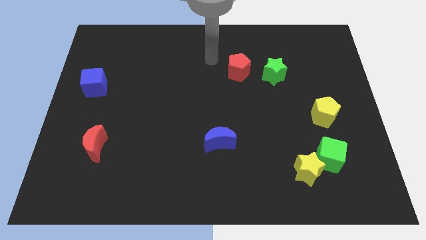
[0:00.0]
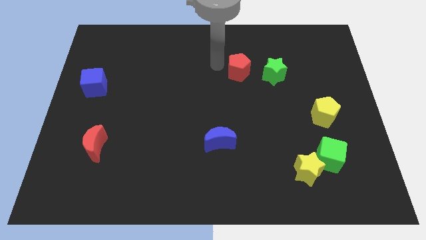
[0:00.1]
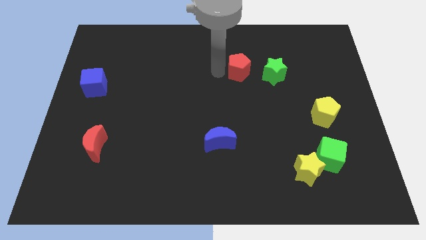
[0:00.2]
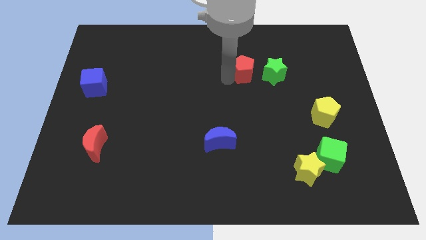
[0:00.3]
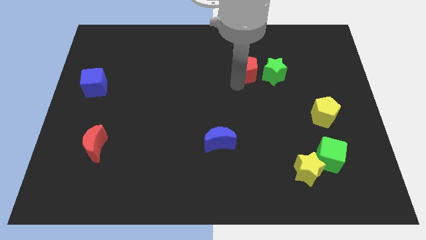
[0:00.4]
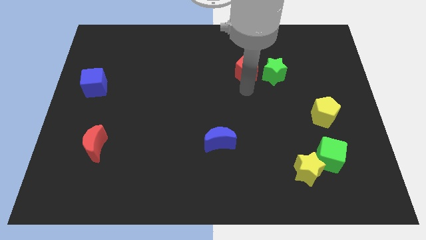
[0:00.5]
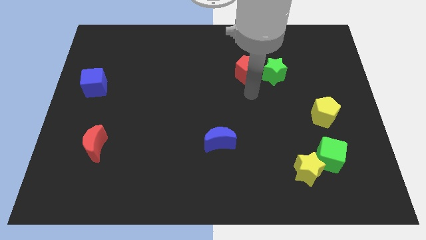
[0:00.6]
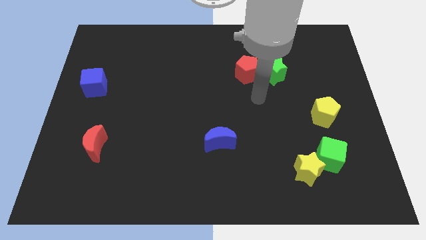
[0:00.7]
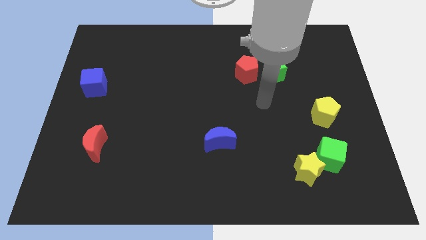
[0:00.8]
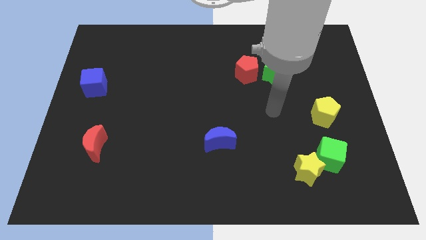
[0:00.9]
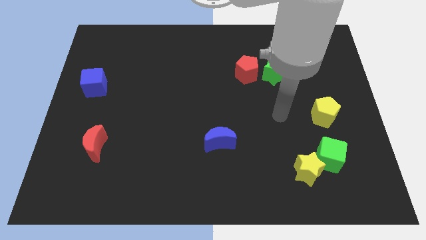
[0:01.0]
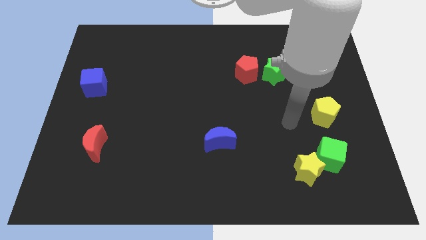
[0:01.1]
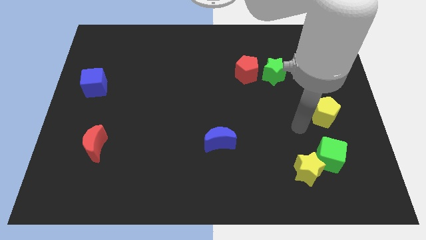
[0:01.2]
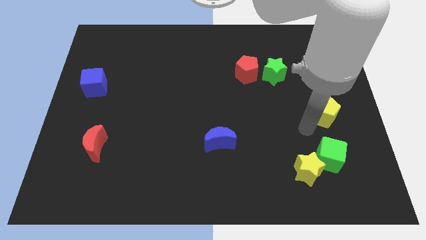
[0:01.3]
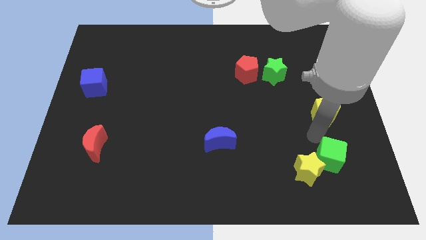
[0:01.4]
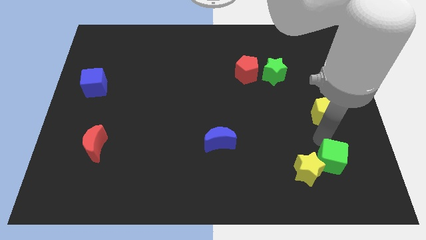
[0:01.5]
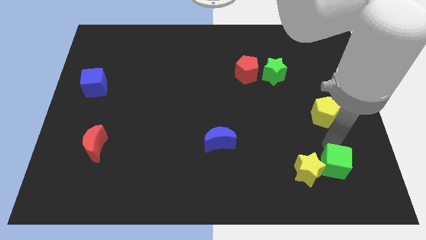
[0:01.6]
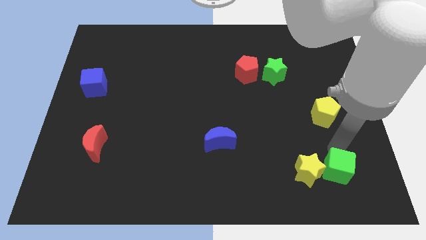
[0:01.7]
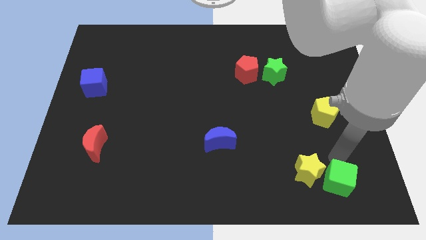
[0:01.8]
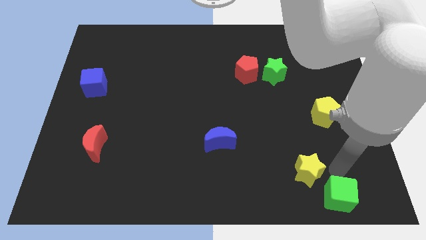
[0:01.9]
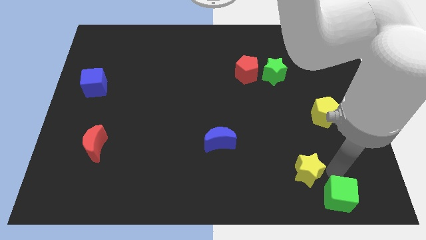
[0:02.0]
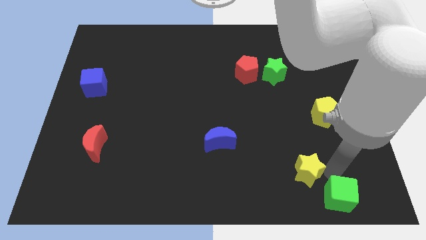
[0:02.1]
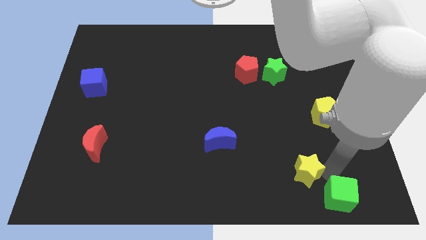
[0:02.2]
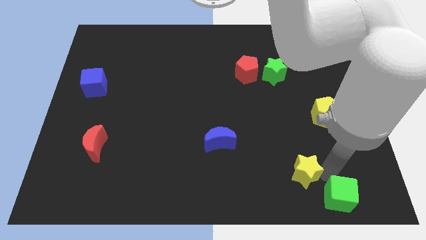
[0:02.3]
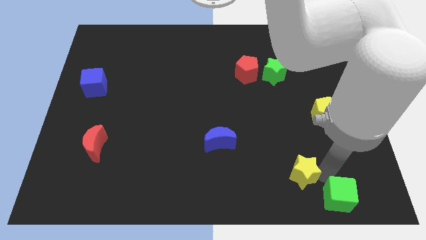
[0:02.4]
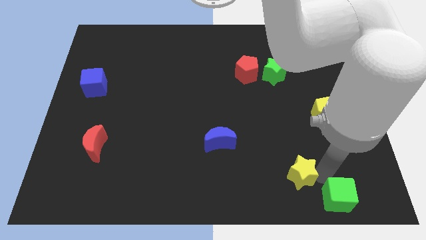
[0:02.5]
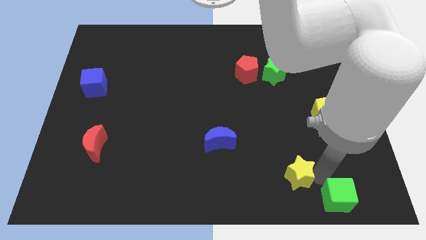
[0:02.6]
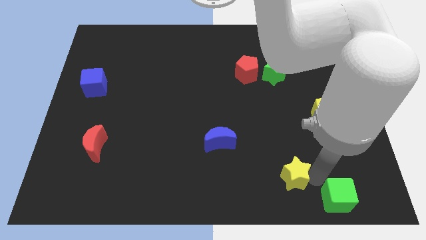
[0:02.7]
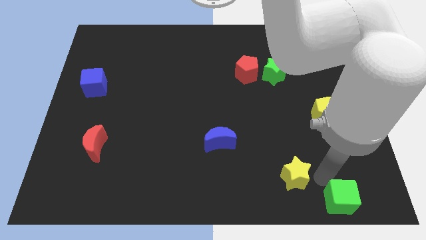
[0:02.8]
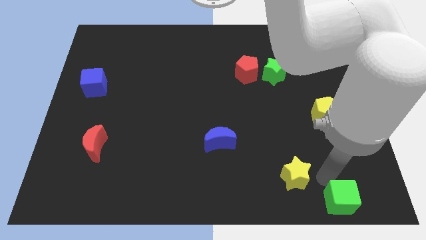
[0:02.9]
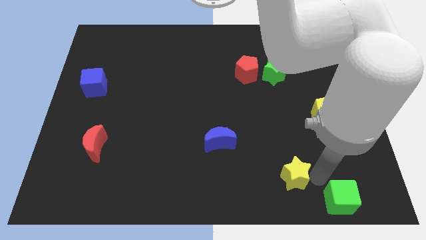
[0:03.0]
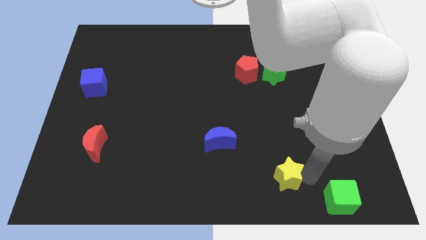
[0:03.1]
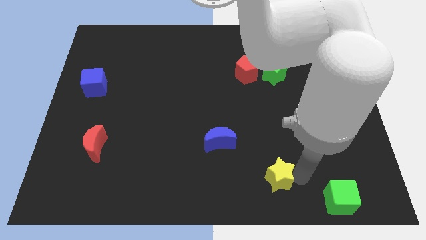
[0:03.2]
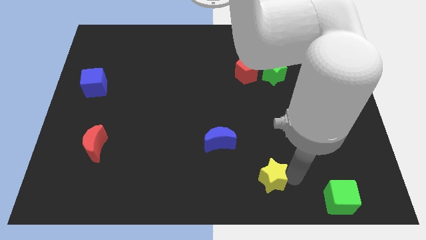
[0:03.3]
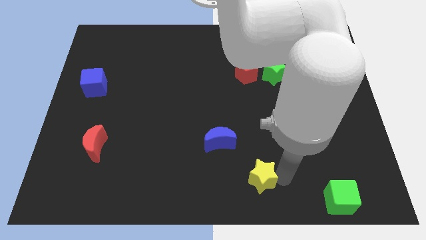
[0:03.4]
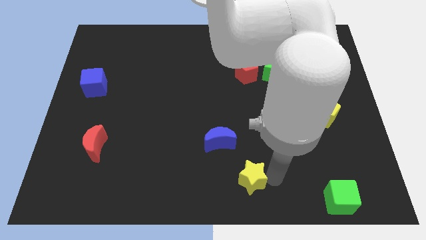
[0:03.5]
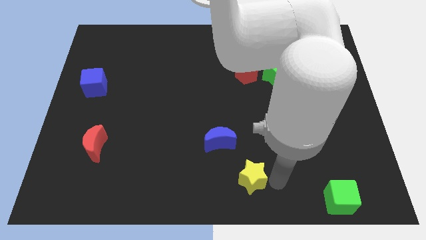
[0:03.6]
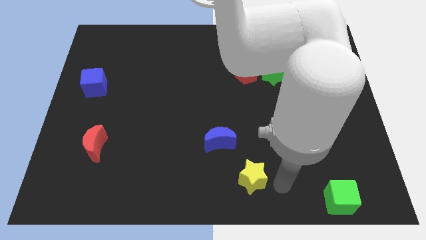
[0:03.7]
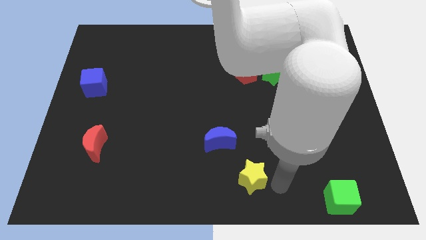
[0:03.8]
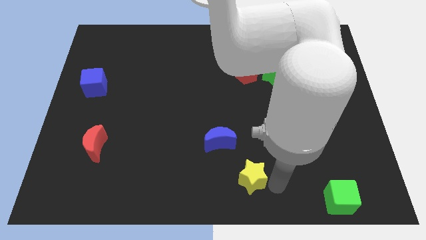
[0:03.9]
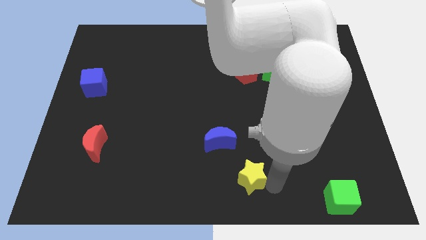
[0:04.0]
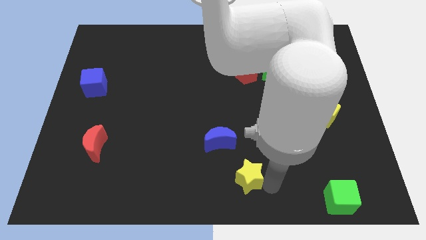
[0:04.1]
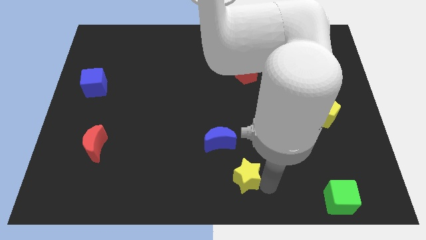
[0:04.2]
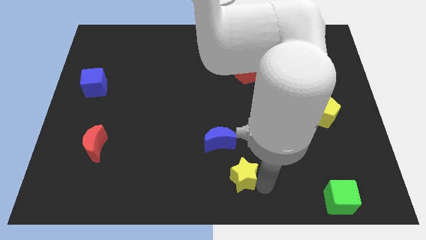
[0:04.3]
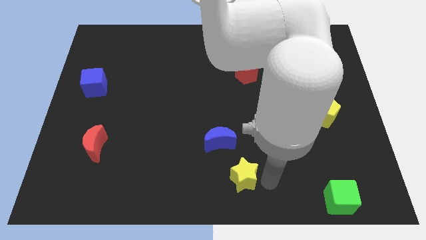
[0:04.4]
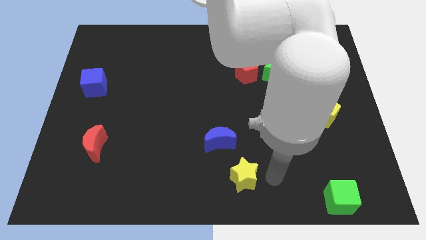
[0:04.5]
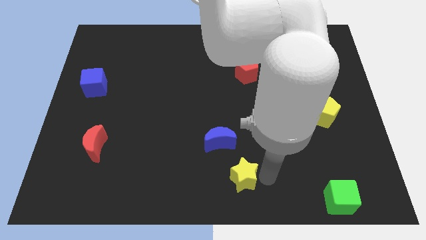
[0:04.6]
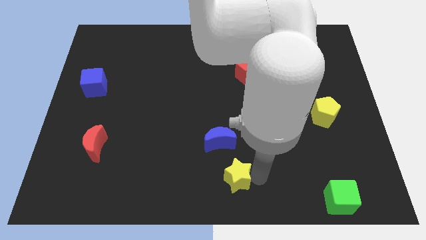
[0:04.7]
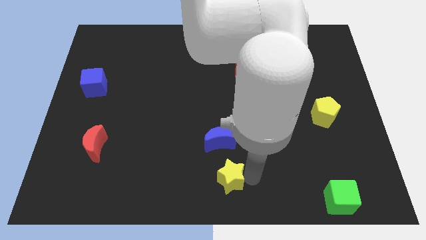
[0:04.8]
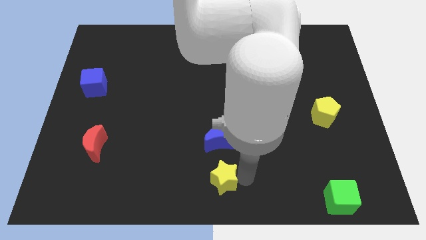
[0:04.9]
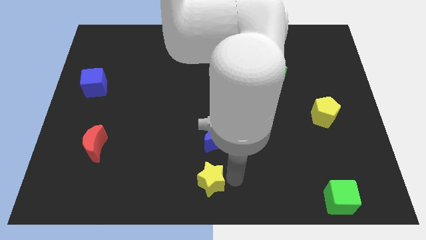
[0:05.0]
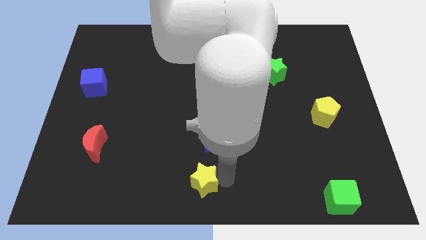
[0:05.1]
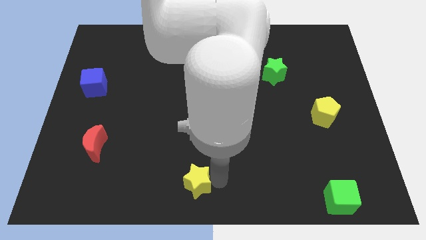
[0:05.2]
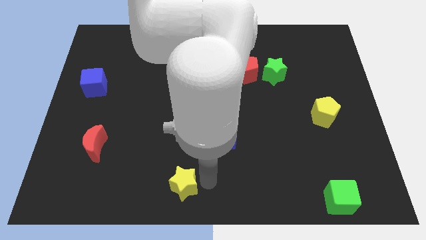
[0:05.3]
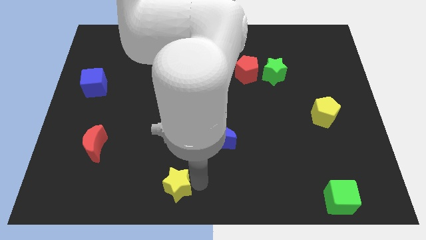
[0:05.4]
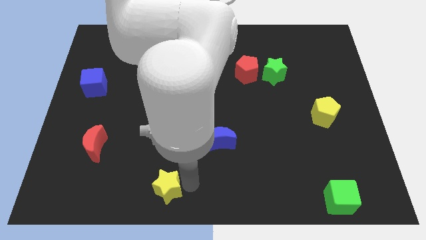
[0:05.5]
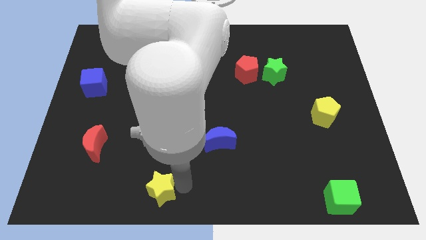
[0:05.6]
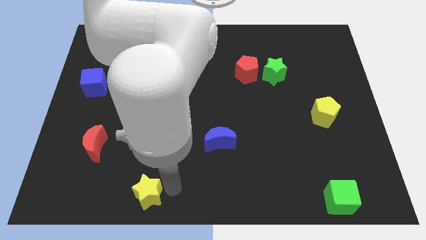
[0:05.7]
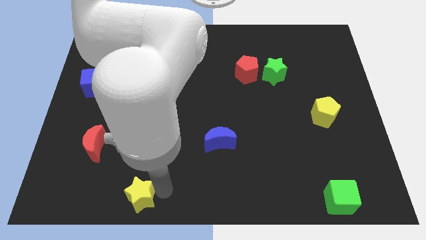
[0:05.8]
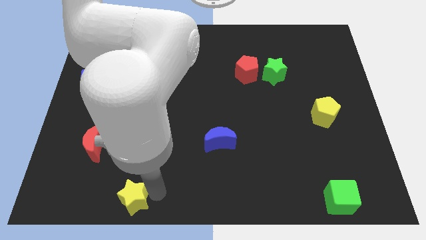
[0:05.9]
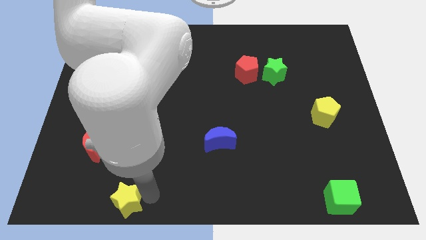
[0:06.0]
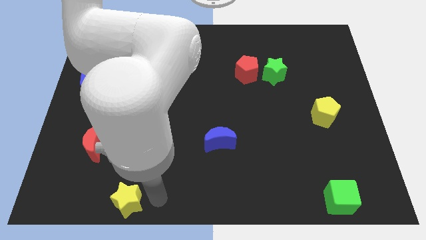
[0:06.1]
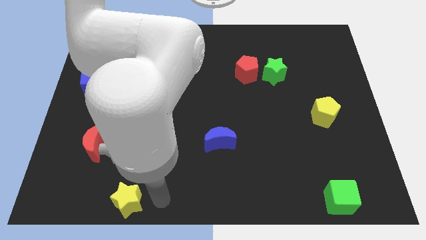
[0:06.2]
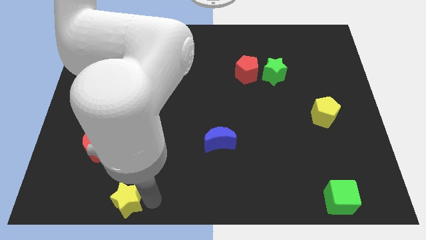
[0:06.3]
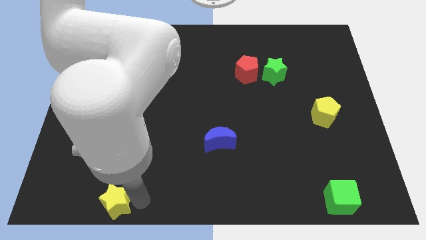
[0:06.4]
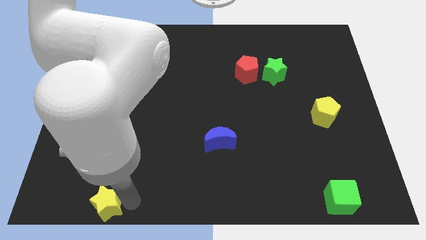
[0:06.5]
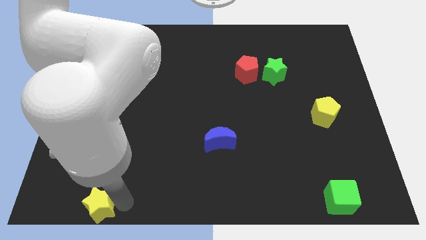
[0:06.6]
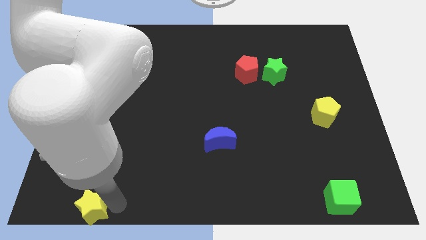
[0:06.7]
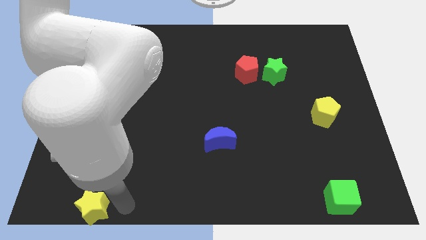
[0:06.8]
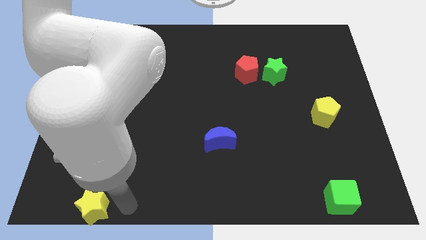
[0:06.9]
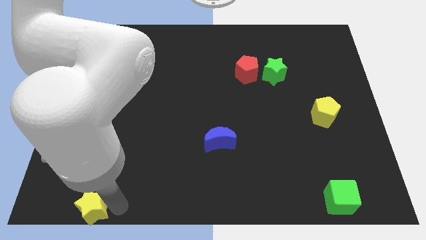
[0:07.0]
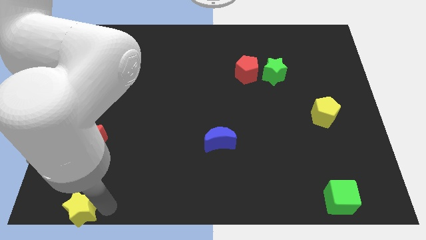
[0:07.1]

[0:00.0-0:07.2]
push the yellow star to the bottom left corner
